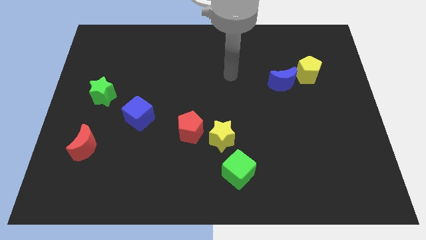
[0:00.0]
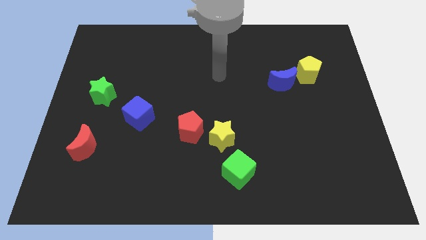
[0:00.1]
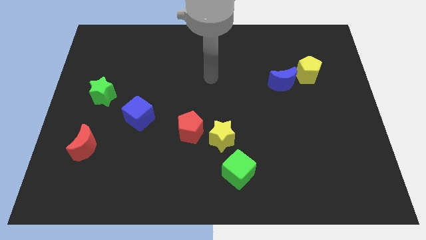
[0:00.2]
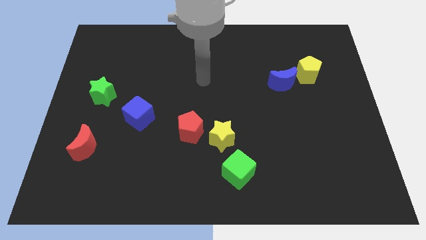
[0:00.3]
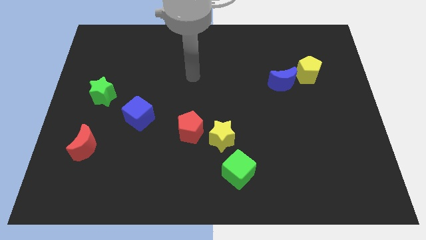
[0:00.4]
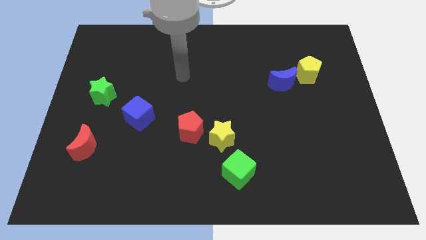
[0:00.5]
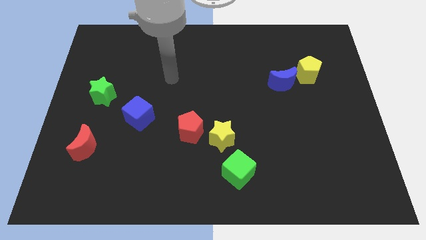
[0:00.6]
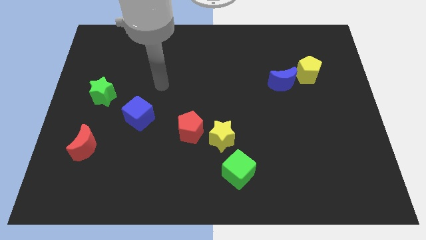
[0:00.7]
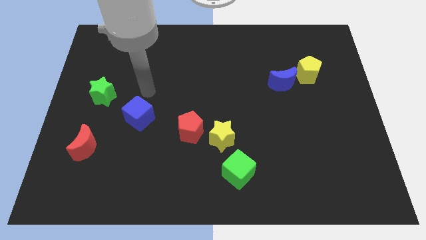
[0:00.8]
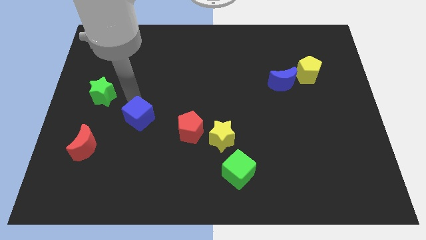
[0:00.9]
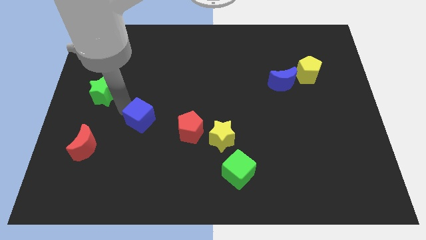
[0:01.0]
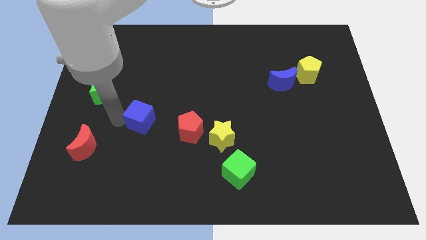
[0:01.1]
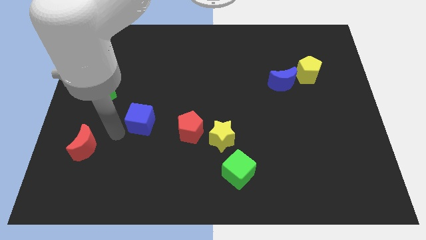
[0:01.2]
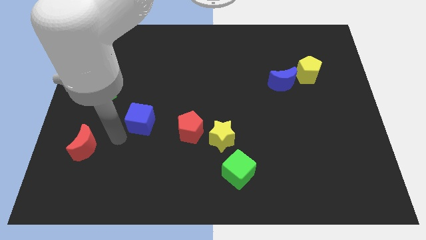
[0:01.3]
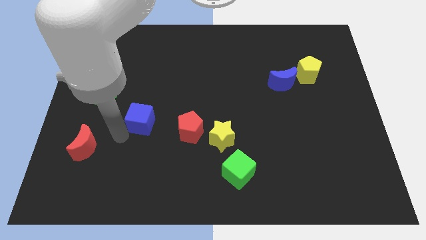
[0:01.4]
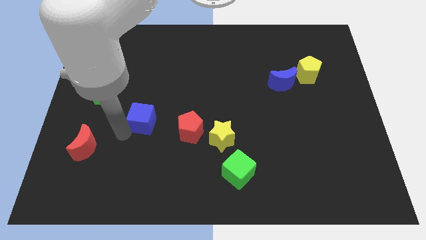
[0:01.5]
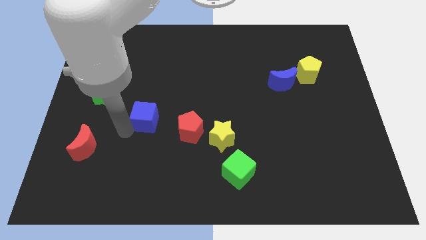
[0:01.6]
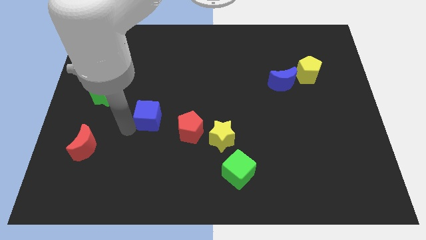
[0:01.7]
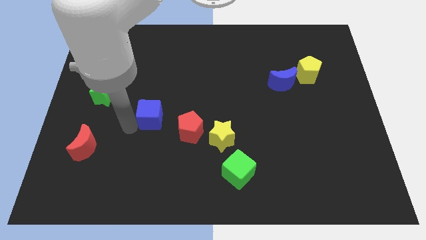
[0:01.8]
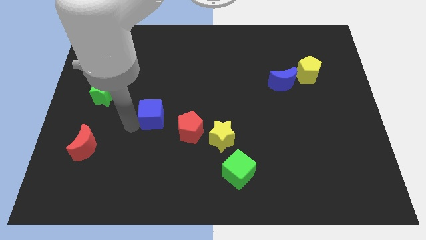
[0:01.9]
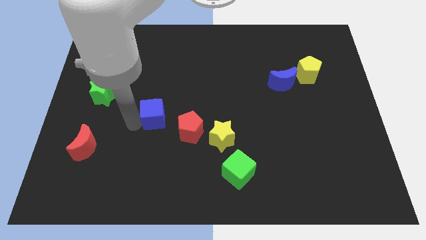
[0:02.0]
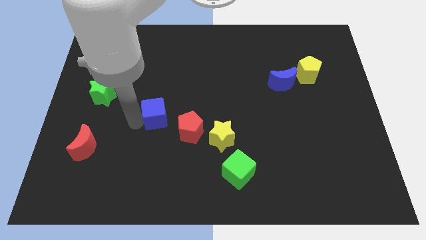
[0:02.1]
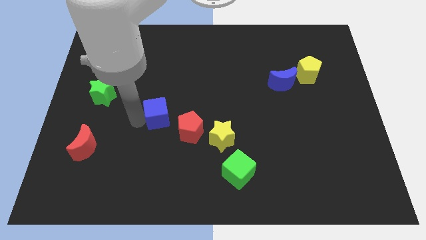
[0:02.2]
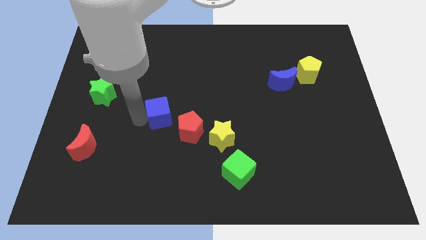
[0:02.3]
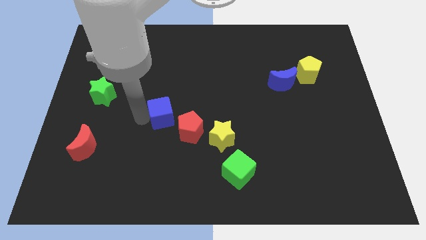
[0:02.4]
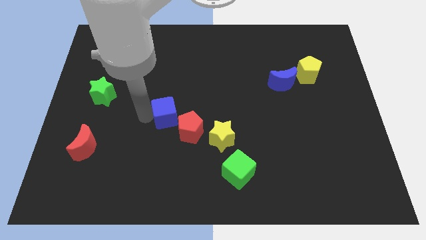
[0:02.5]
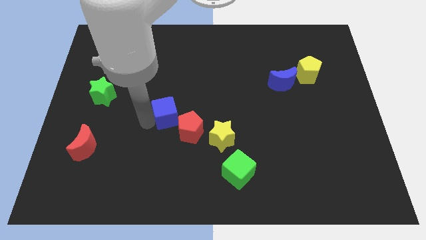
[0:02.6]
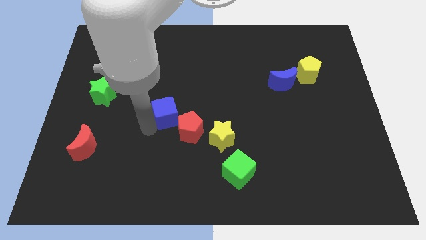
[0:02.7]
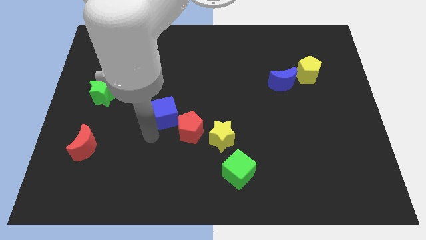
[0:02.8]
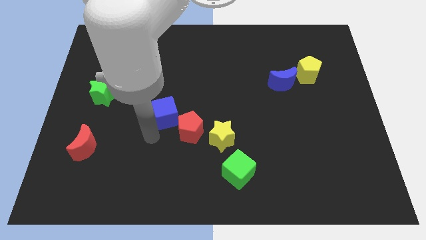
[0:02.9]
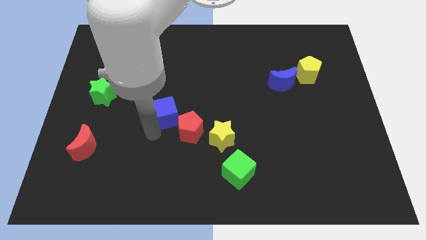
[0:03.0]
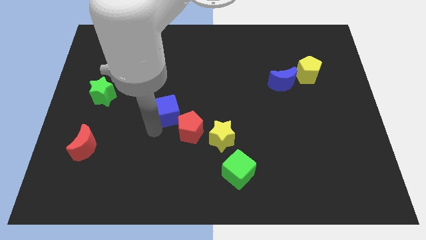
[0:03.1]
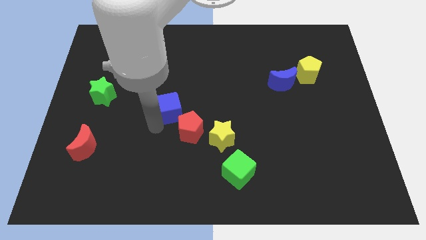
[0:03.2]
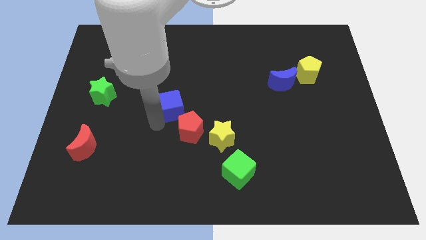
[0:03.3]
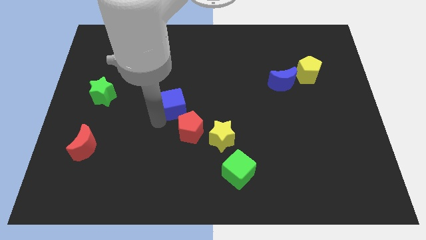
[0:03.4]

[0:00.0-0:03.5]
slide the blue cube diagonally upwards and right a bit

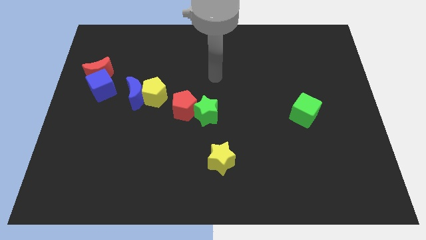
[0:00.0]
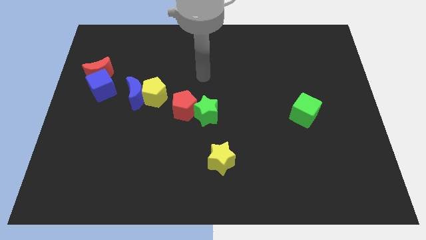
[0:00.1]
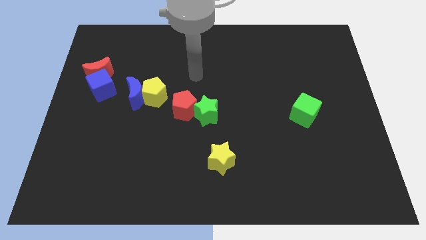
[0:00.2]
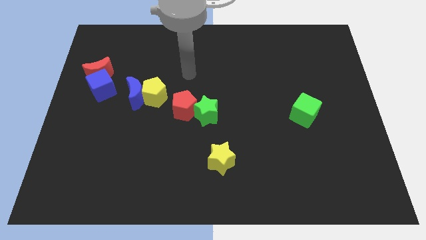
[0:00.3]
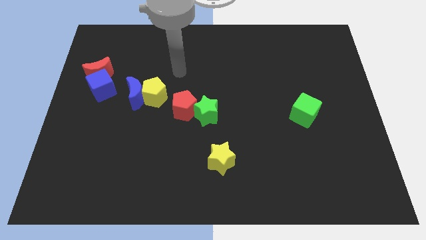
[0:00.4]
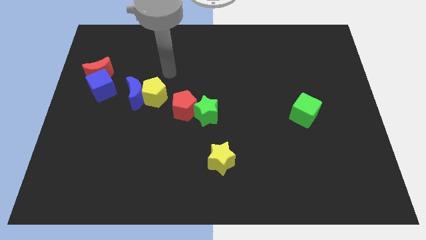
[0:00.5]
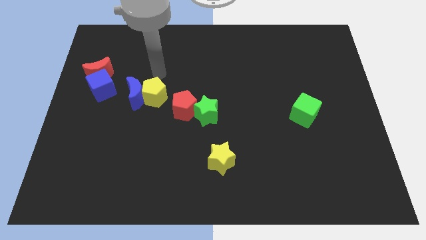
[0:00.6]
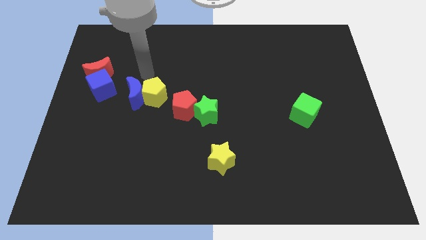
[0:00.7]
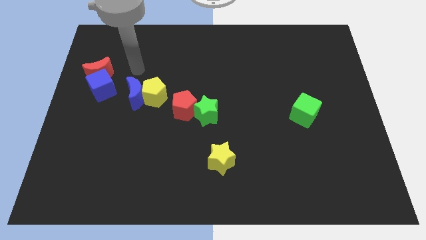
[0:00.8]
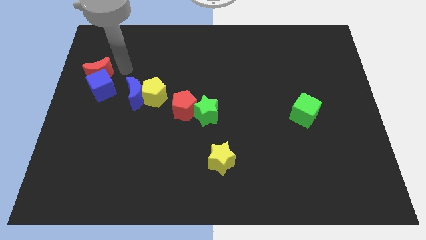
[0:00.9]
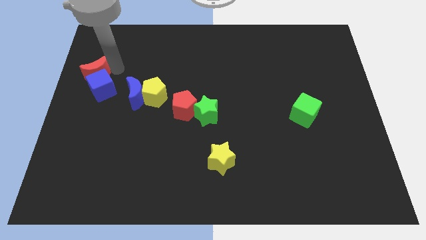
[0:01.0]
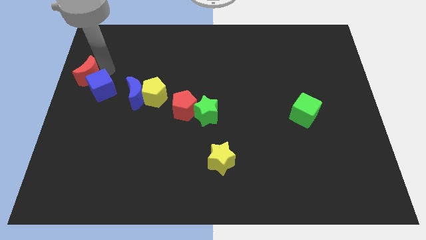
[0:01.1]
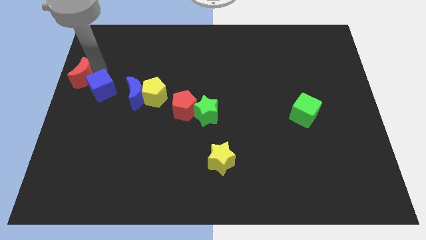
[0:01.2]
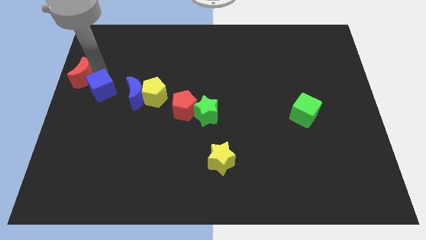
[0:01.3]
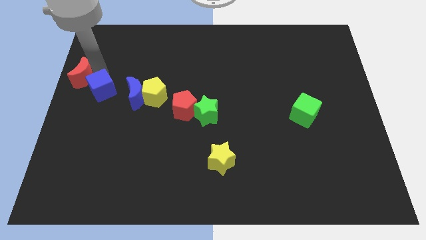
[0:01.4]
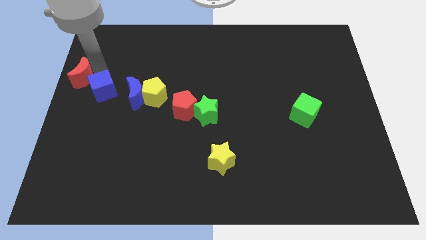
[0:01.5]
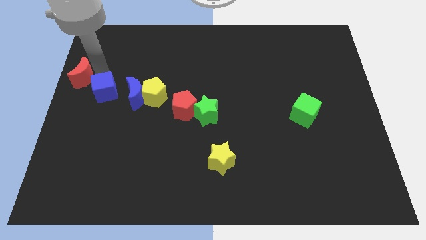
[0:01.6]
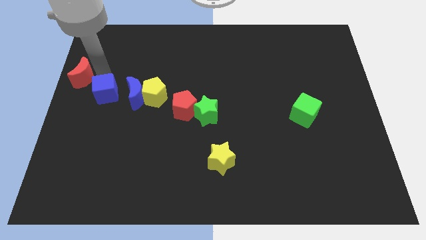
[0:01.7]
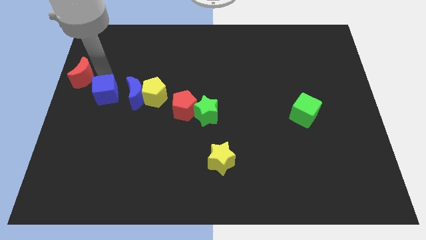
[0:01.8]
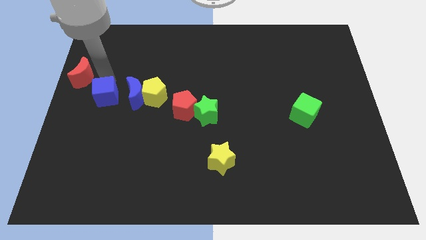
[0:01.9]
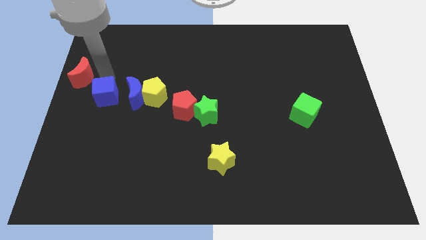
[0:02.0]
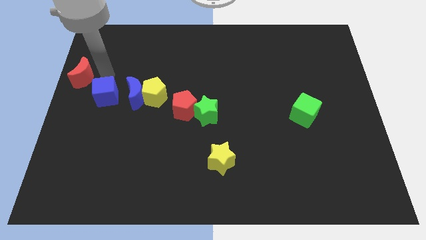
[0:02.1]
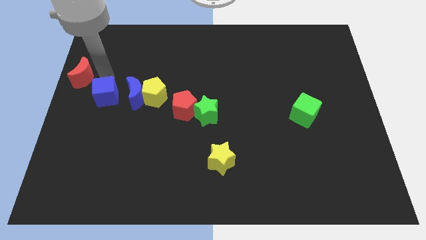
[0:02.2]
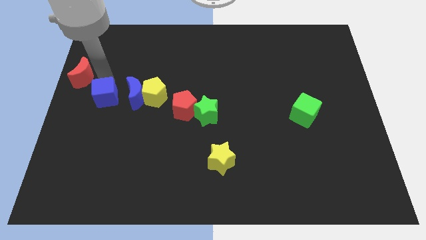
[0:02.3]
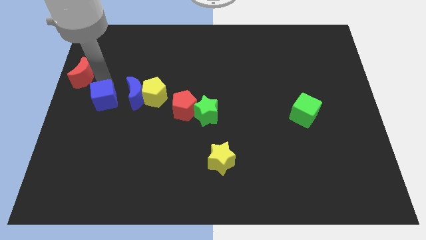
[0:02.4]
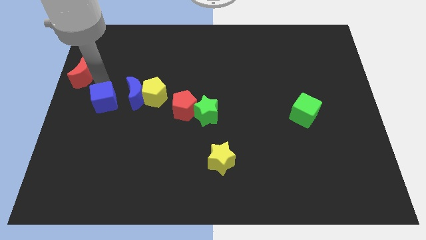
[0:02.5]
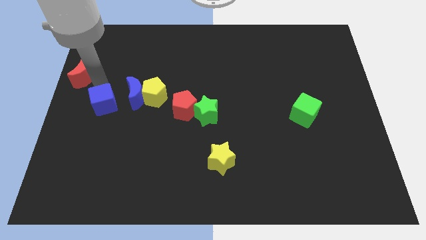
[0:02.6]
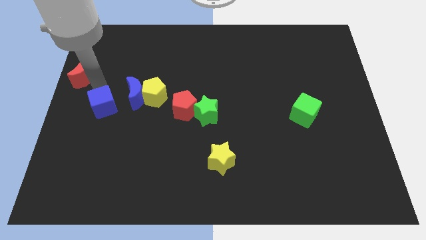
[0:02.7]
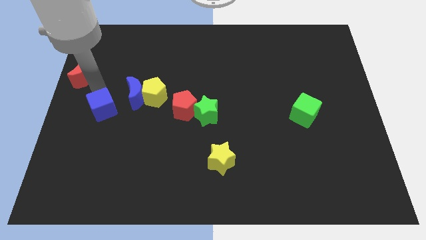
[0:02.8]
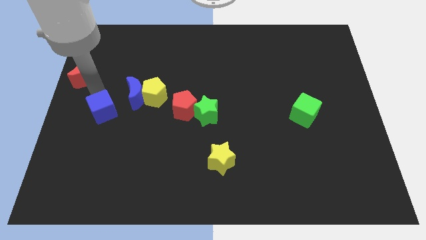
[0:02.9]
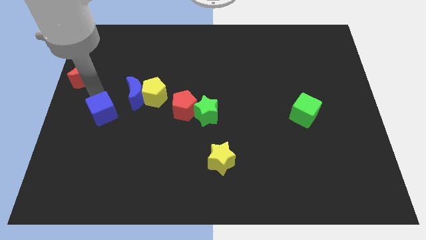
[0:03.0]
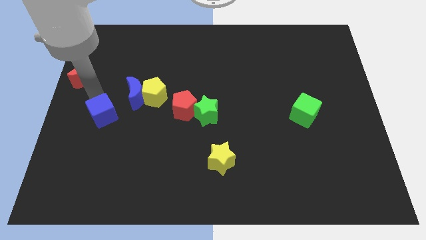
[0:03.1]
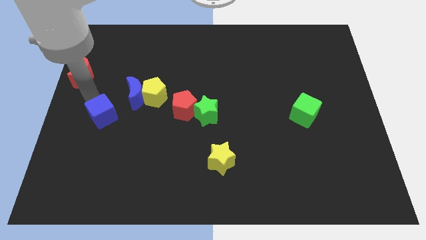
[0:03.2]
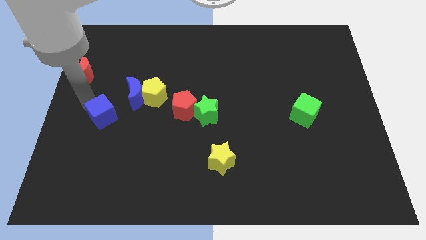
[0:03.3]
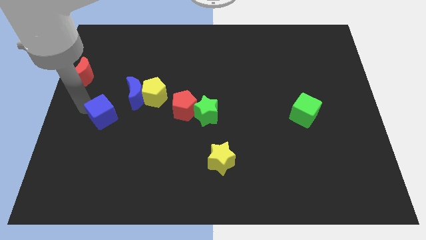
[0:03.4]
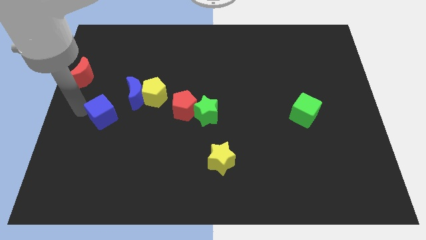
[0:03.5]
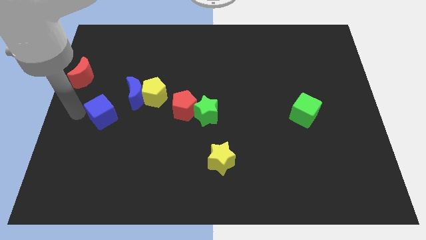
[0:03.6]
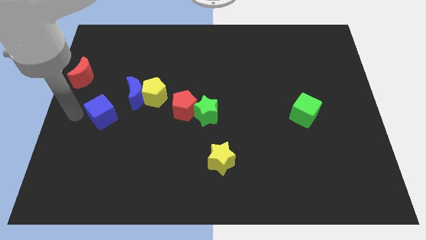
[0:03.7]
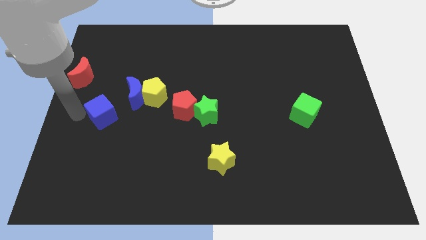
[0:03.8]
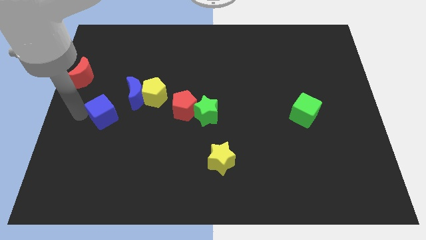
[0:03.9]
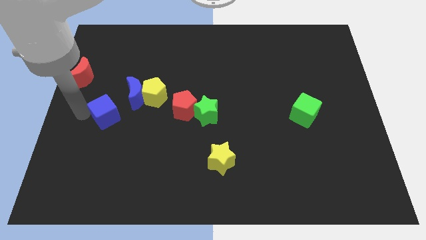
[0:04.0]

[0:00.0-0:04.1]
move the blue cube downwards and then right a little

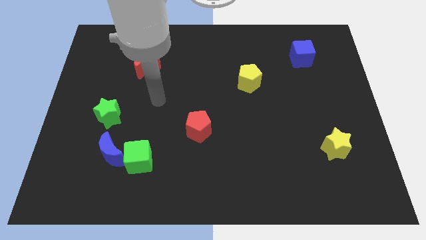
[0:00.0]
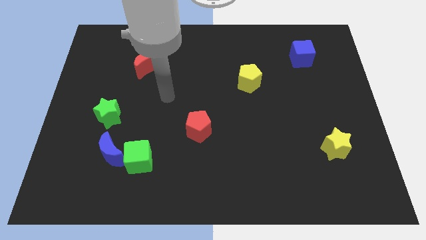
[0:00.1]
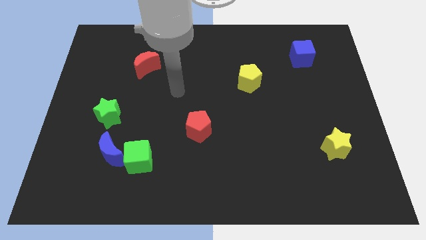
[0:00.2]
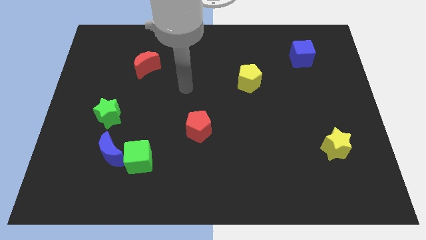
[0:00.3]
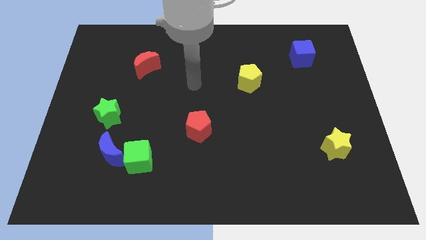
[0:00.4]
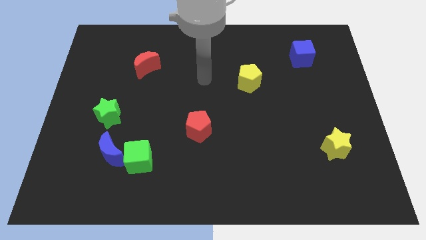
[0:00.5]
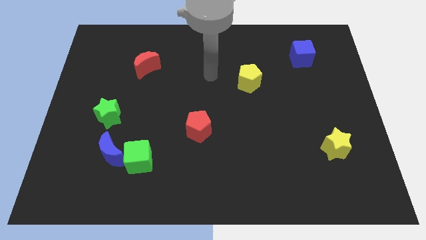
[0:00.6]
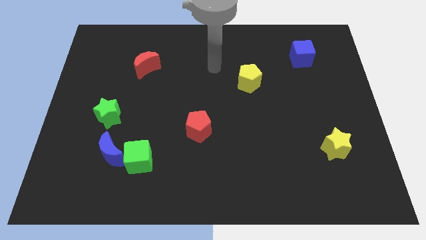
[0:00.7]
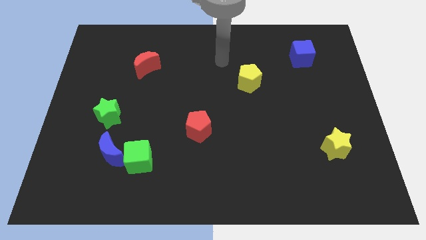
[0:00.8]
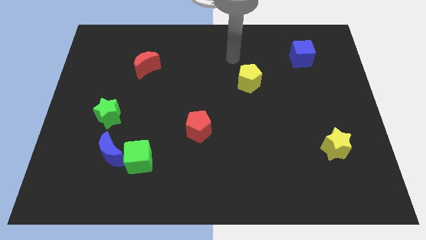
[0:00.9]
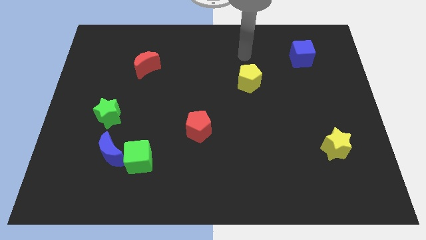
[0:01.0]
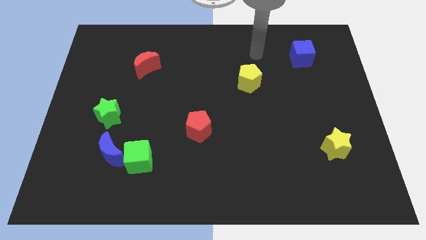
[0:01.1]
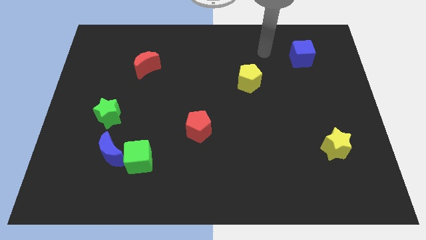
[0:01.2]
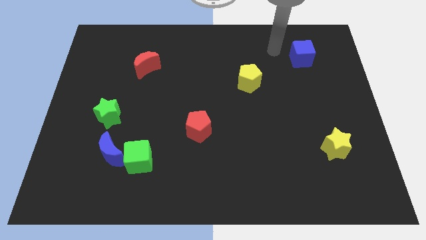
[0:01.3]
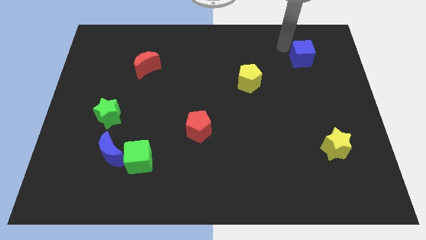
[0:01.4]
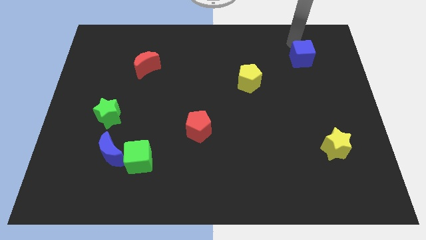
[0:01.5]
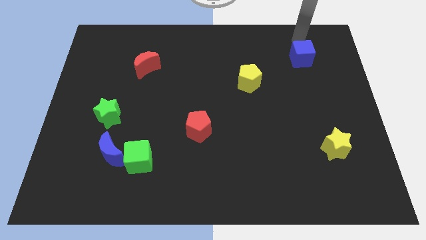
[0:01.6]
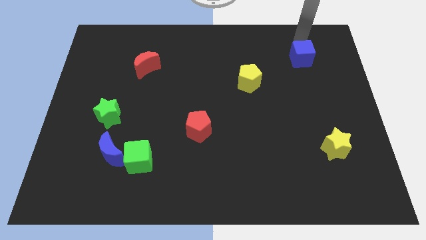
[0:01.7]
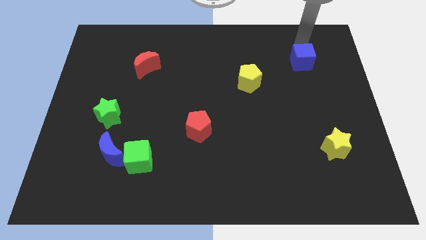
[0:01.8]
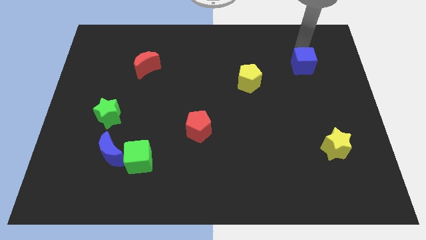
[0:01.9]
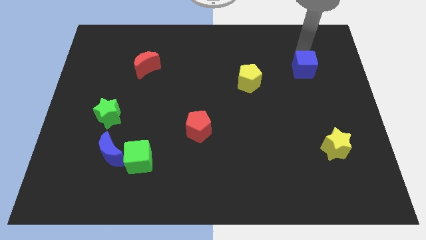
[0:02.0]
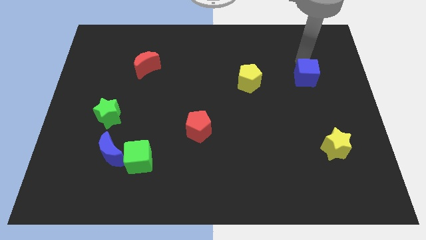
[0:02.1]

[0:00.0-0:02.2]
slide the blue cube slightly down
